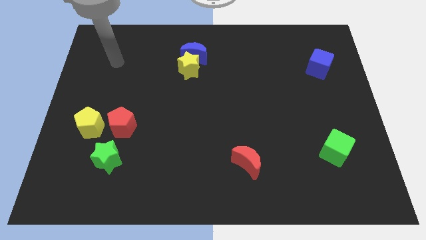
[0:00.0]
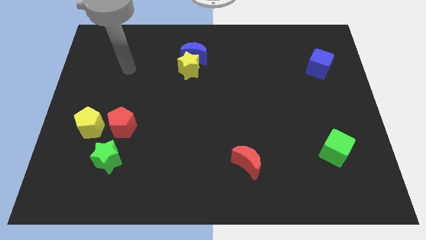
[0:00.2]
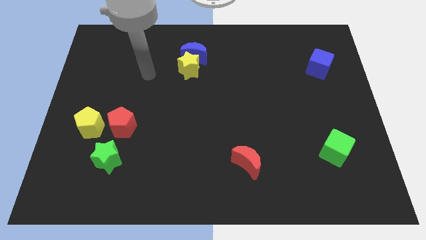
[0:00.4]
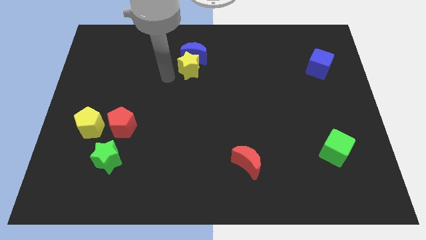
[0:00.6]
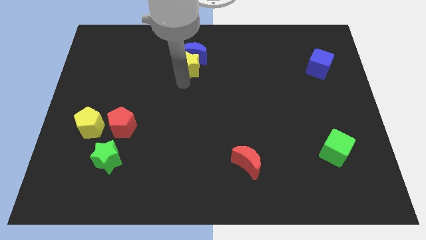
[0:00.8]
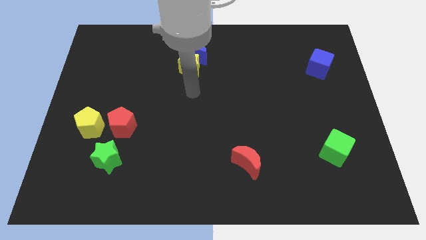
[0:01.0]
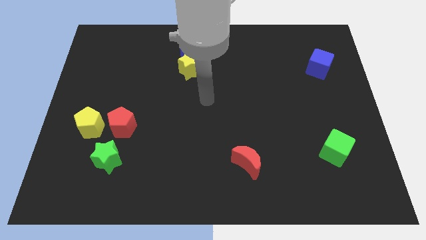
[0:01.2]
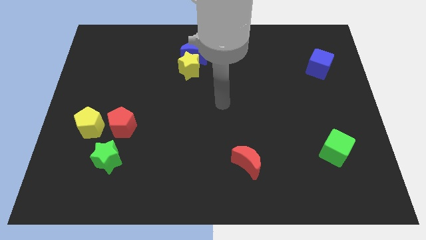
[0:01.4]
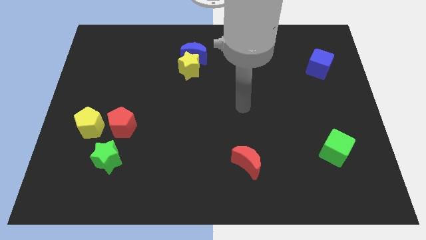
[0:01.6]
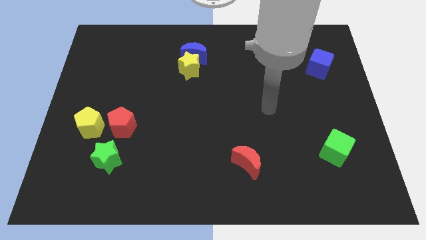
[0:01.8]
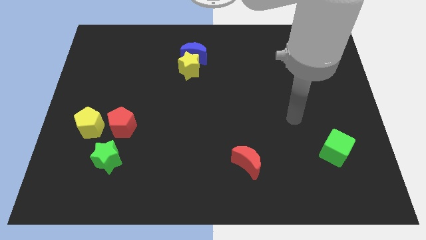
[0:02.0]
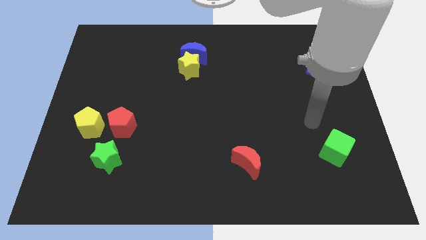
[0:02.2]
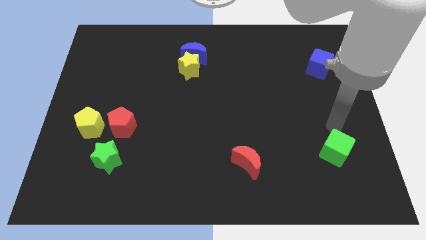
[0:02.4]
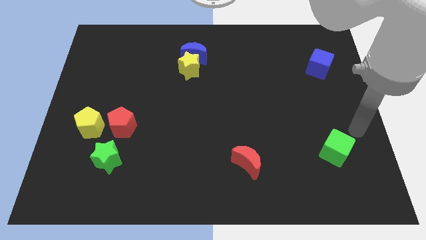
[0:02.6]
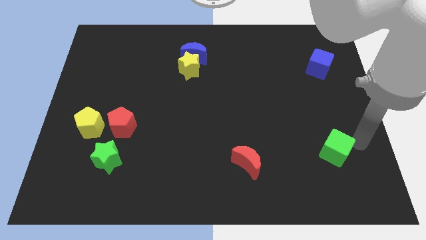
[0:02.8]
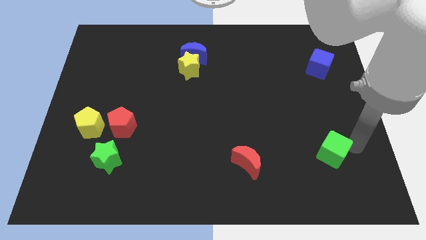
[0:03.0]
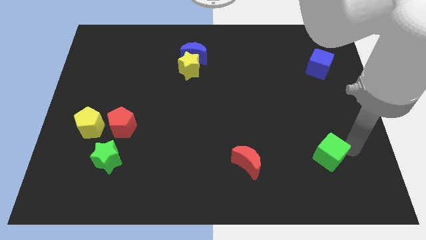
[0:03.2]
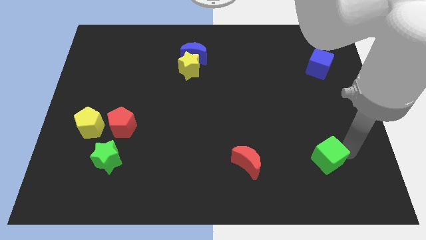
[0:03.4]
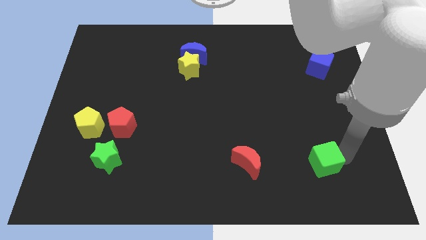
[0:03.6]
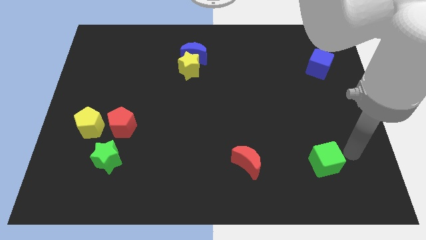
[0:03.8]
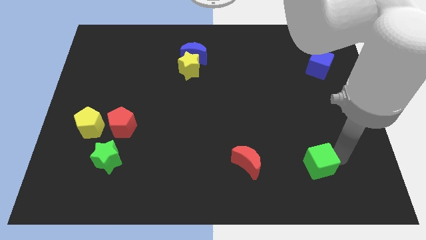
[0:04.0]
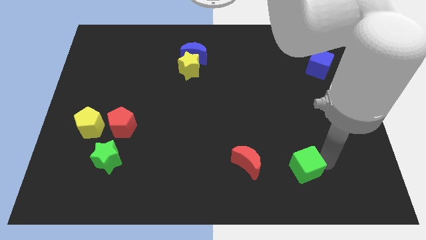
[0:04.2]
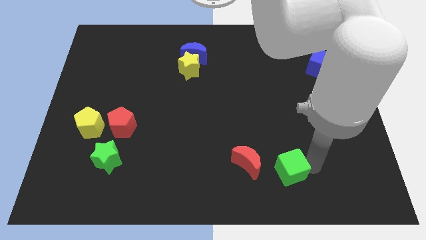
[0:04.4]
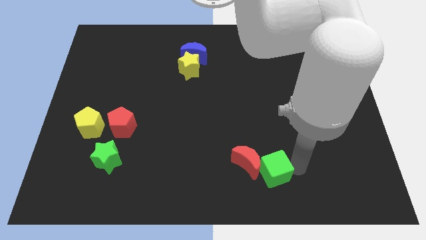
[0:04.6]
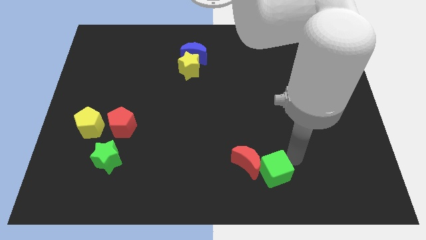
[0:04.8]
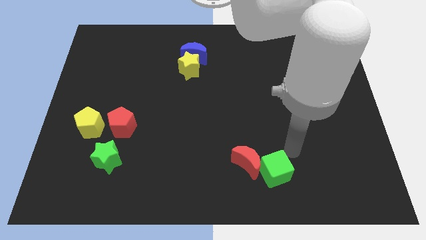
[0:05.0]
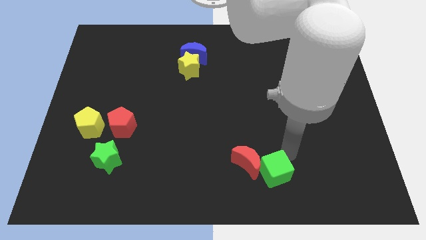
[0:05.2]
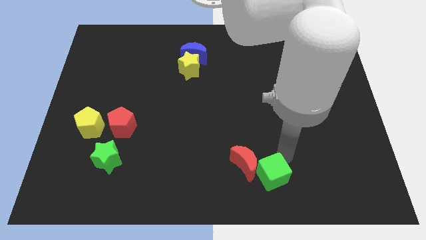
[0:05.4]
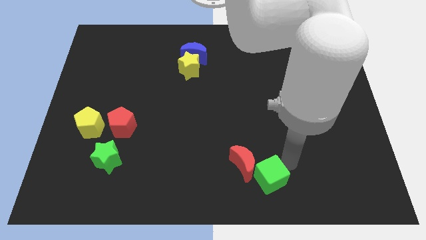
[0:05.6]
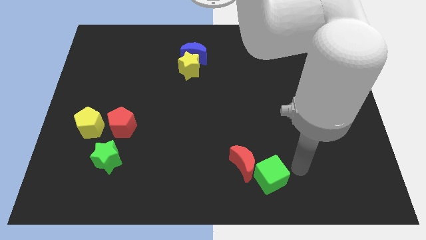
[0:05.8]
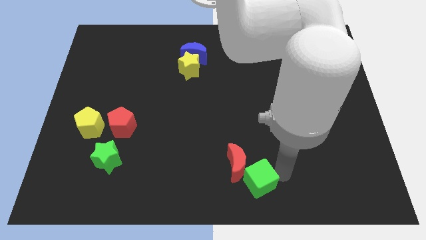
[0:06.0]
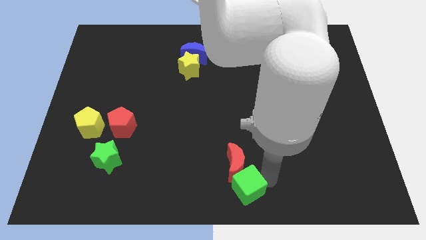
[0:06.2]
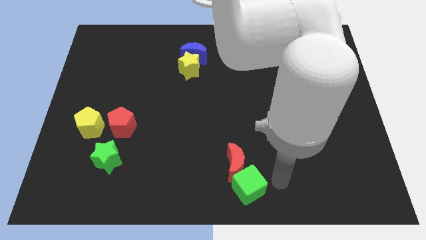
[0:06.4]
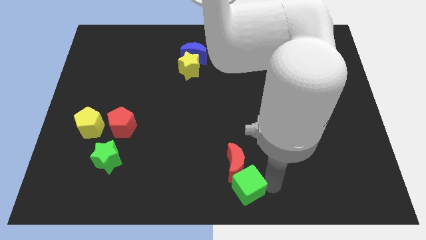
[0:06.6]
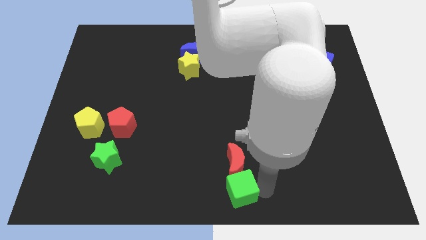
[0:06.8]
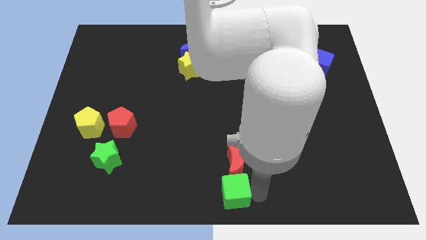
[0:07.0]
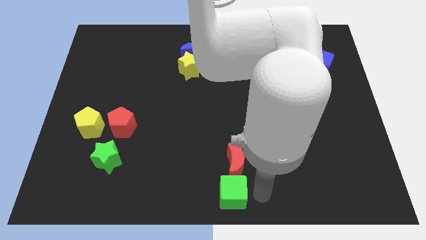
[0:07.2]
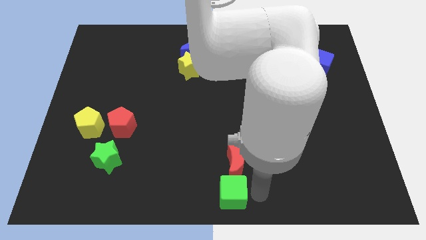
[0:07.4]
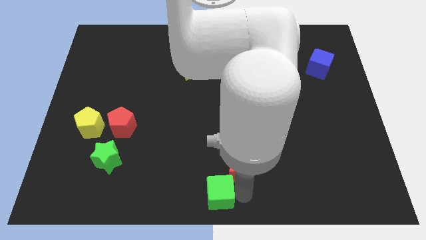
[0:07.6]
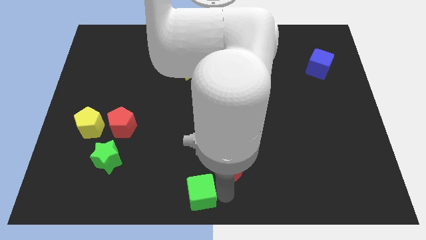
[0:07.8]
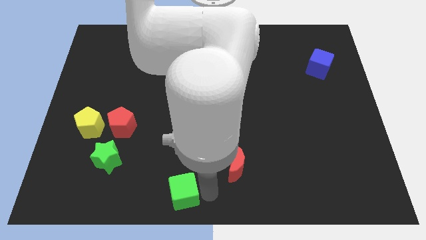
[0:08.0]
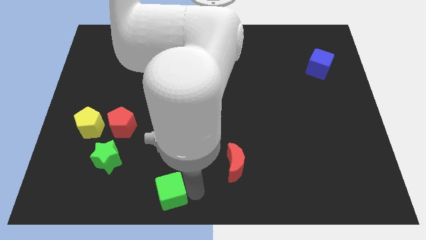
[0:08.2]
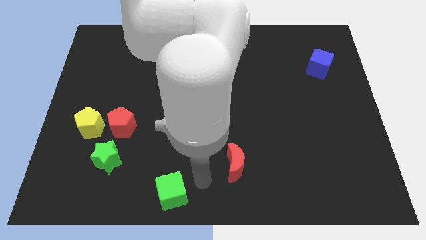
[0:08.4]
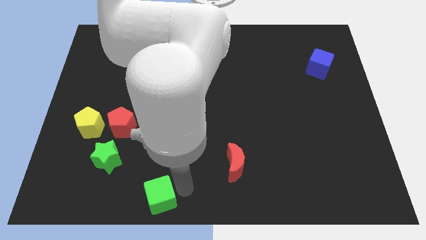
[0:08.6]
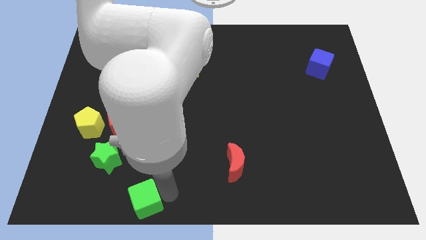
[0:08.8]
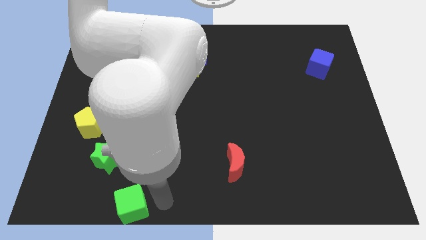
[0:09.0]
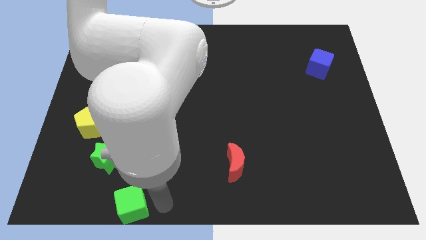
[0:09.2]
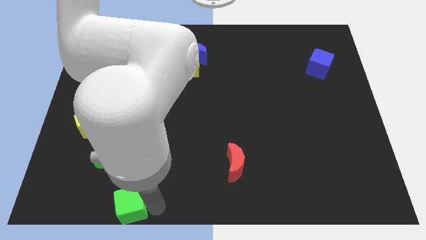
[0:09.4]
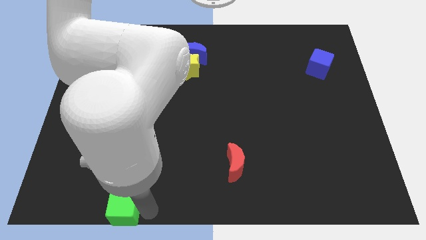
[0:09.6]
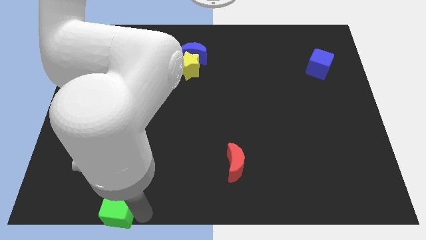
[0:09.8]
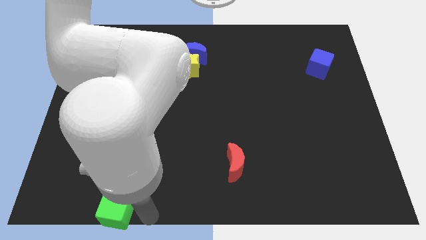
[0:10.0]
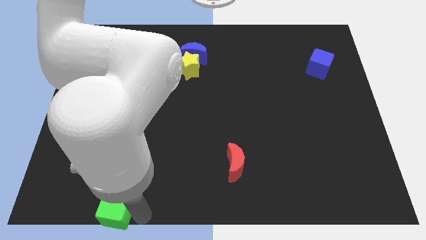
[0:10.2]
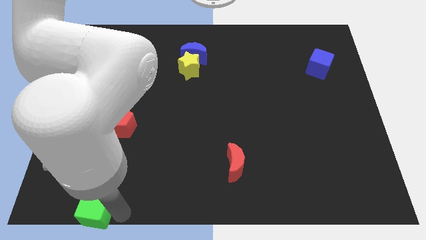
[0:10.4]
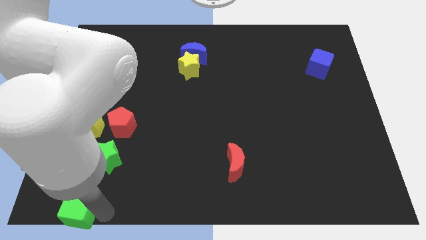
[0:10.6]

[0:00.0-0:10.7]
push the green cube to the lower left corner

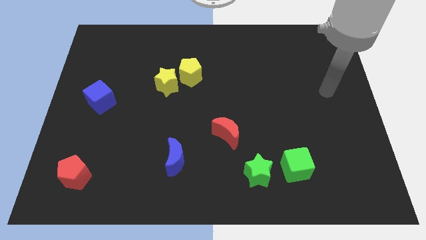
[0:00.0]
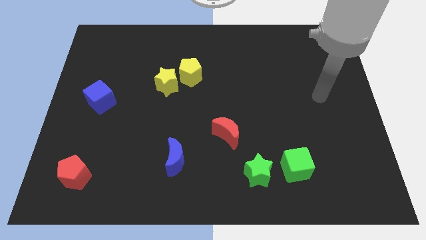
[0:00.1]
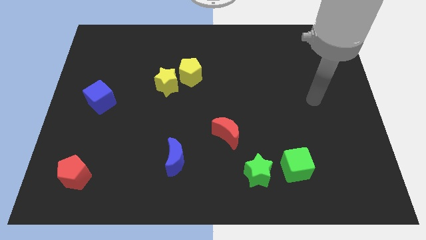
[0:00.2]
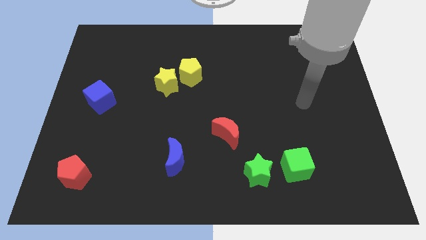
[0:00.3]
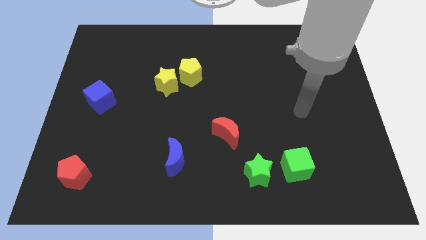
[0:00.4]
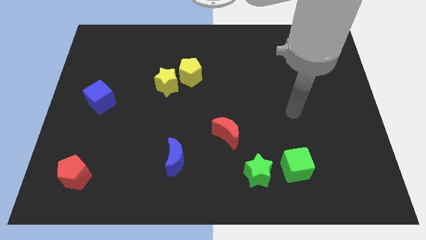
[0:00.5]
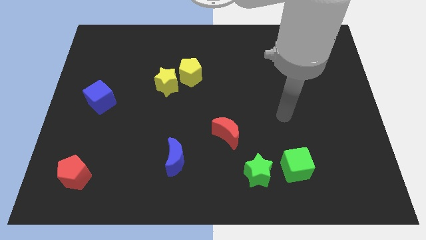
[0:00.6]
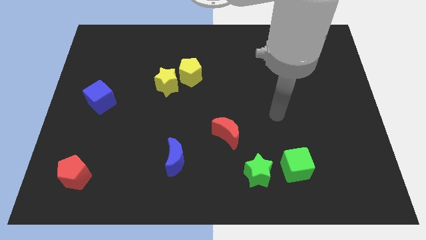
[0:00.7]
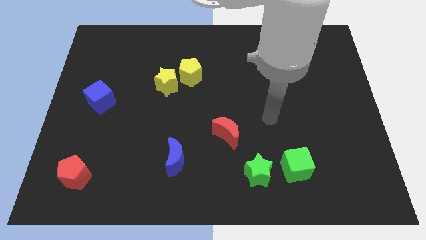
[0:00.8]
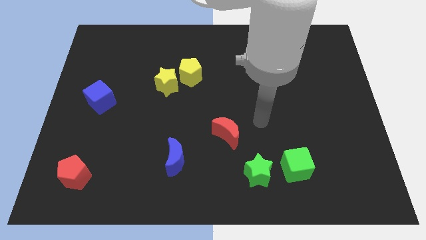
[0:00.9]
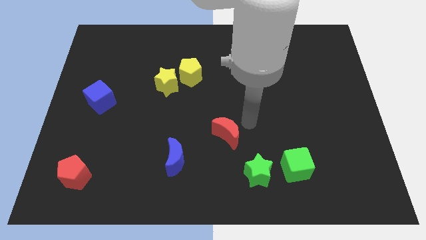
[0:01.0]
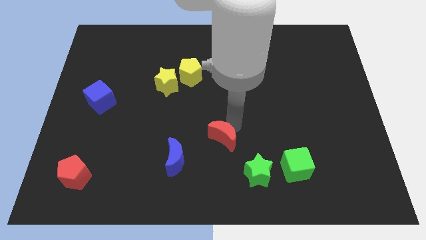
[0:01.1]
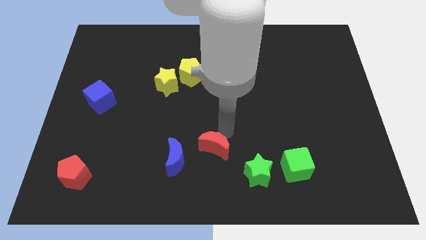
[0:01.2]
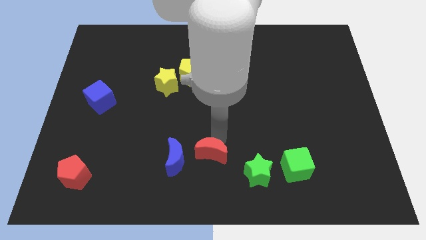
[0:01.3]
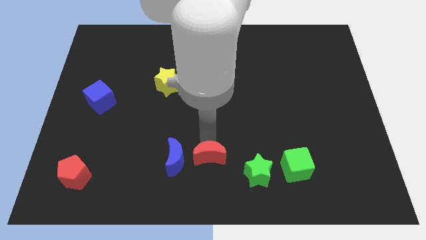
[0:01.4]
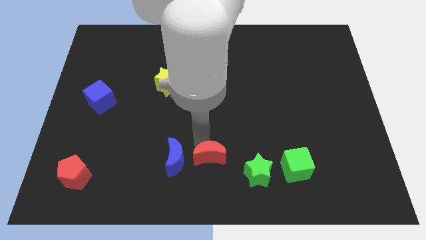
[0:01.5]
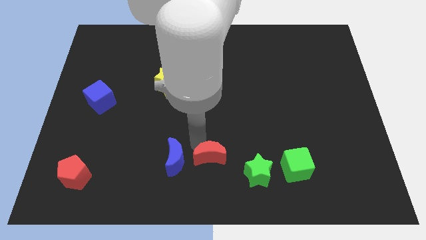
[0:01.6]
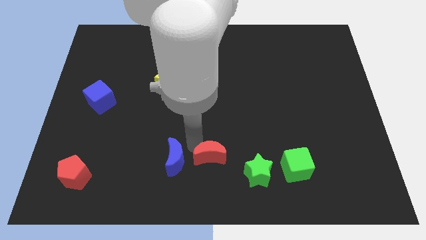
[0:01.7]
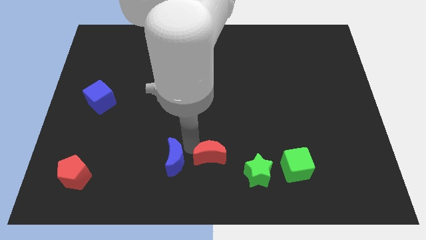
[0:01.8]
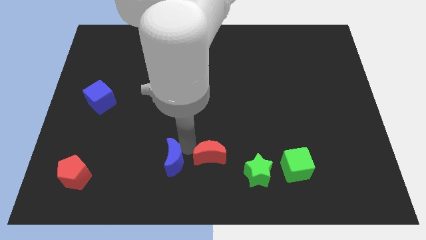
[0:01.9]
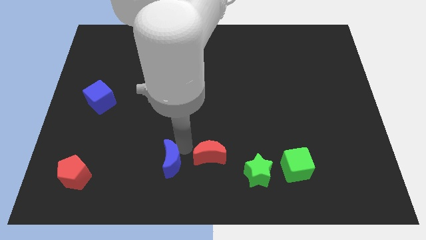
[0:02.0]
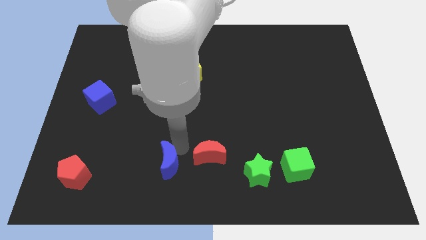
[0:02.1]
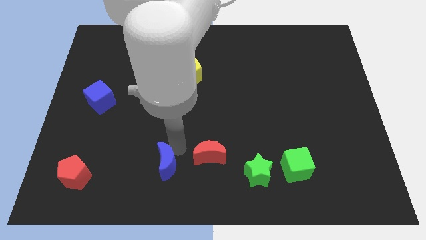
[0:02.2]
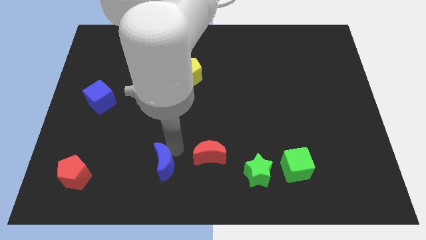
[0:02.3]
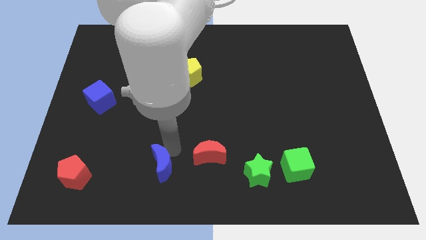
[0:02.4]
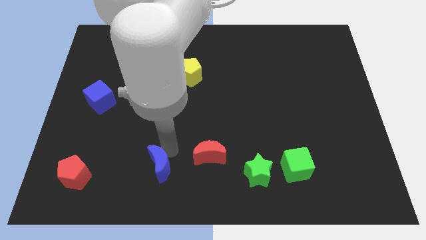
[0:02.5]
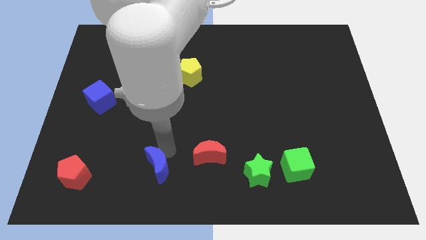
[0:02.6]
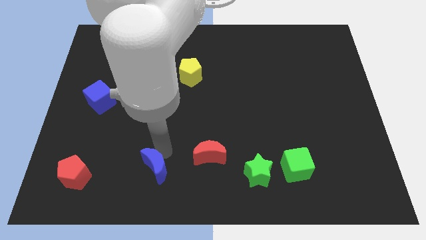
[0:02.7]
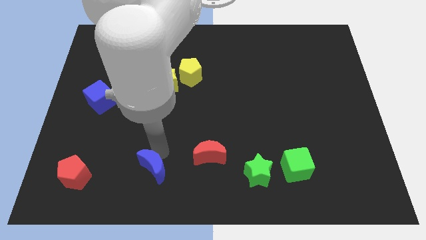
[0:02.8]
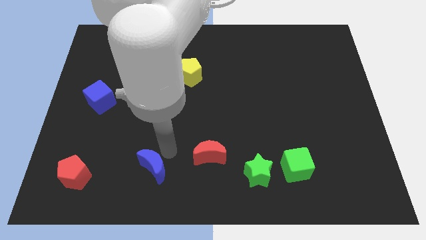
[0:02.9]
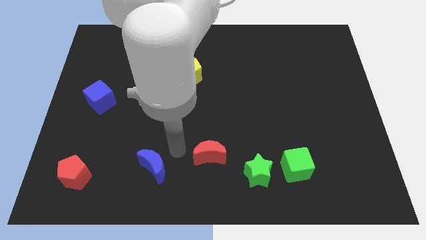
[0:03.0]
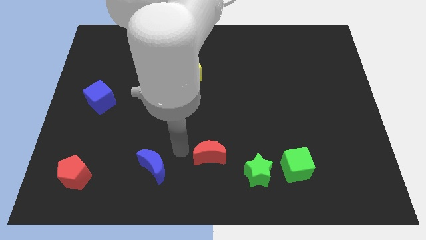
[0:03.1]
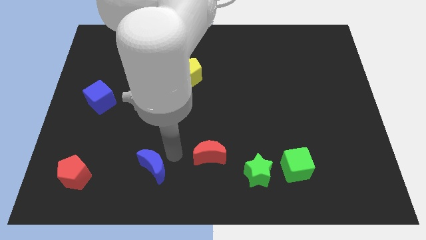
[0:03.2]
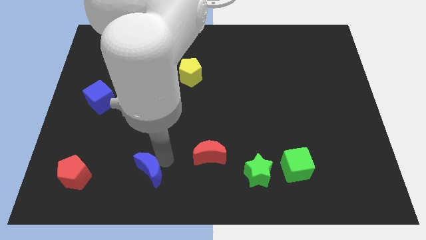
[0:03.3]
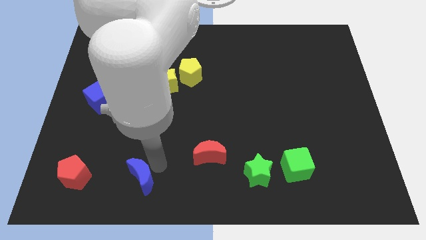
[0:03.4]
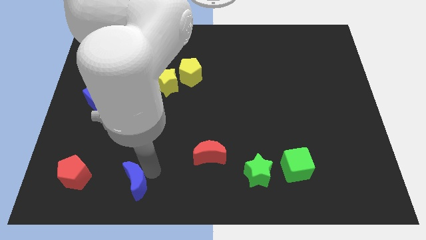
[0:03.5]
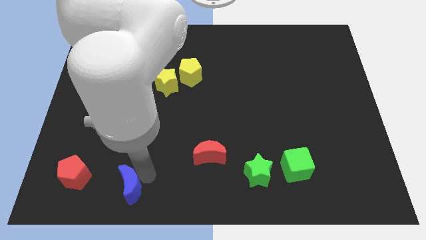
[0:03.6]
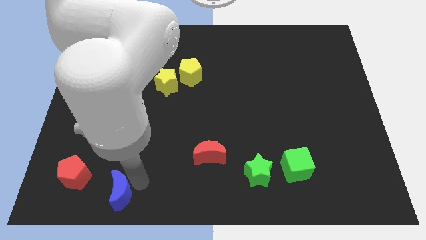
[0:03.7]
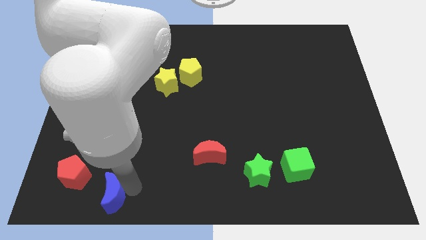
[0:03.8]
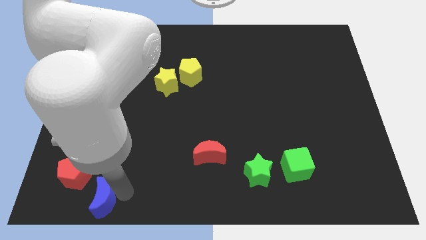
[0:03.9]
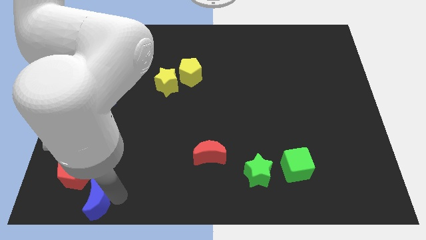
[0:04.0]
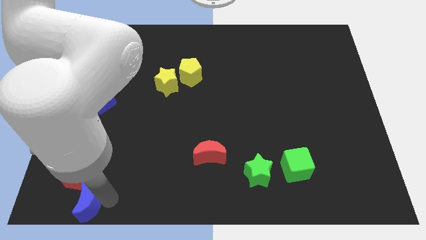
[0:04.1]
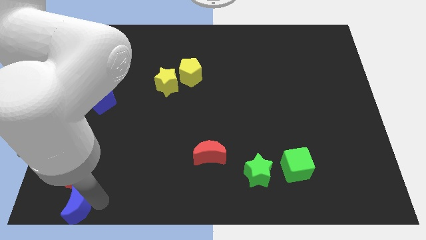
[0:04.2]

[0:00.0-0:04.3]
slide the blue moon to the lower left corner
